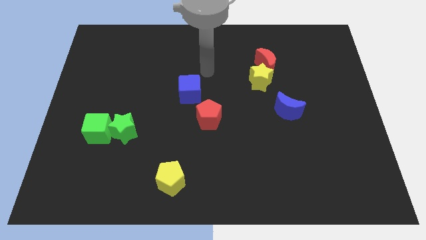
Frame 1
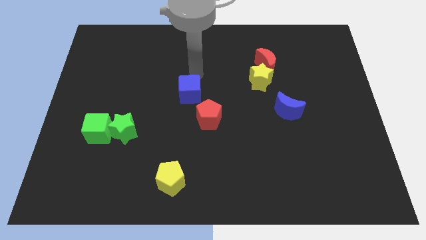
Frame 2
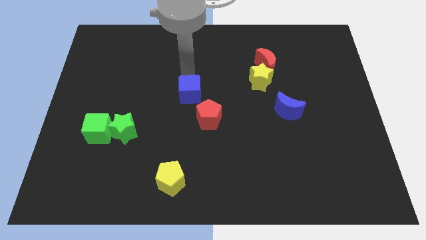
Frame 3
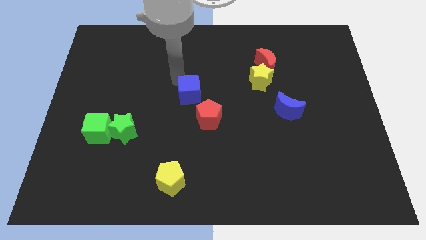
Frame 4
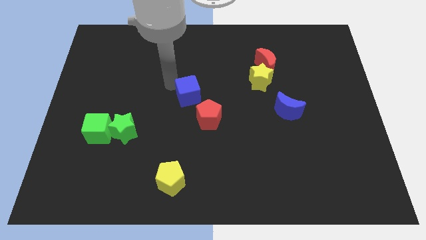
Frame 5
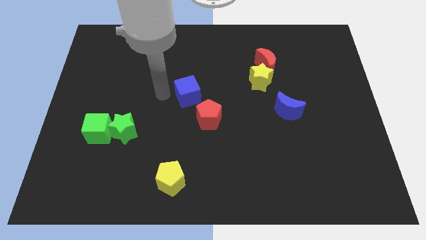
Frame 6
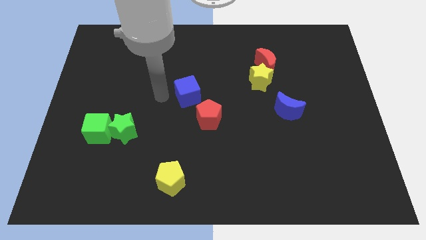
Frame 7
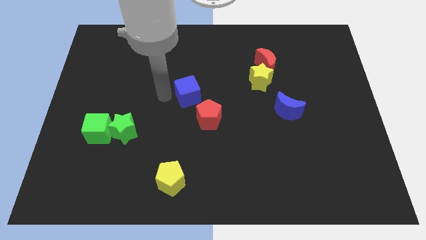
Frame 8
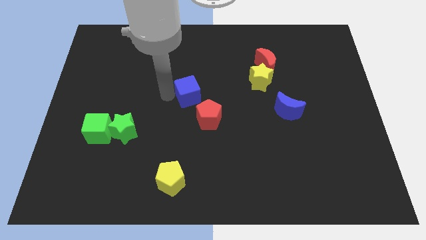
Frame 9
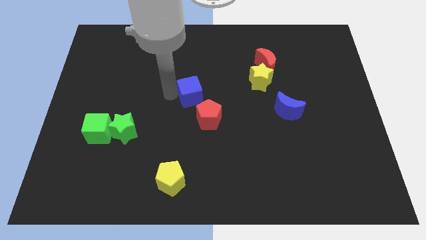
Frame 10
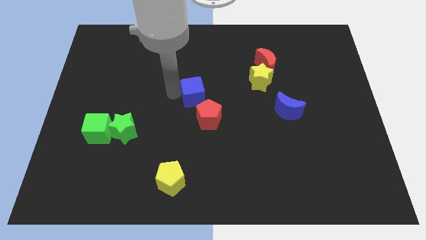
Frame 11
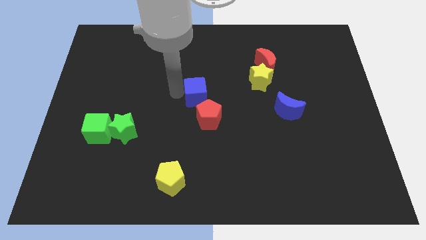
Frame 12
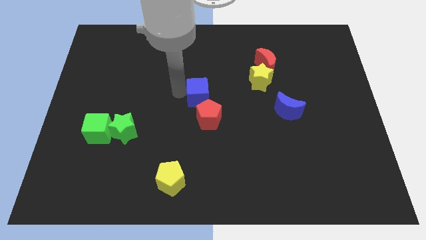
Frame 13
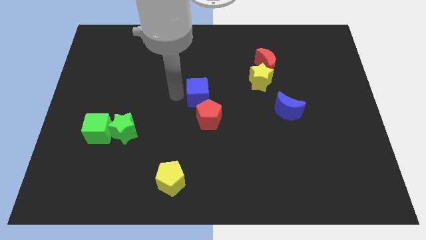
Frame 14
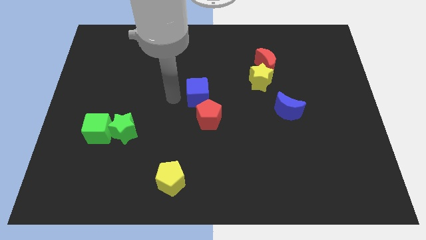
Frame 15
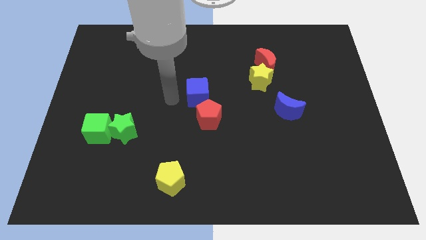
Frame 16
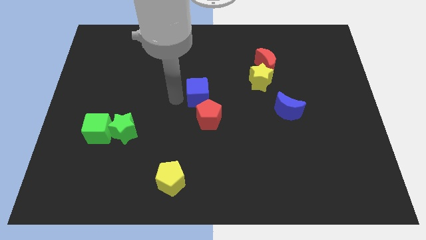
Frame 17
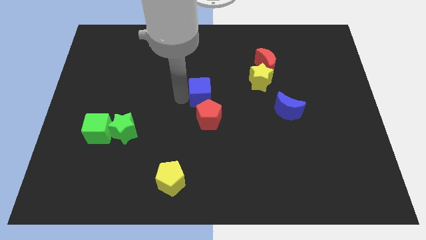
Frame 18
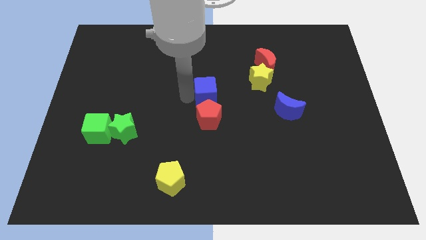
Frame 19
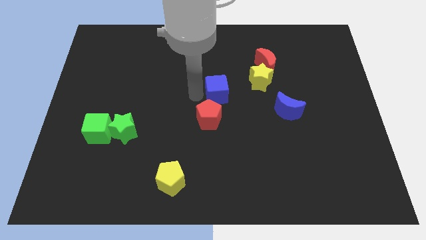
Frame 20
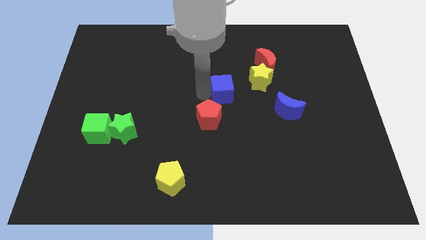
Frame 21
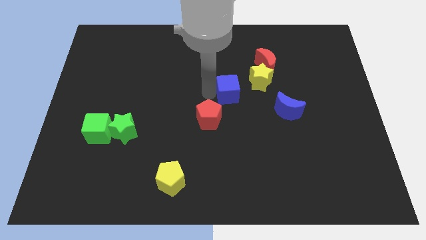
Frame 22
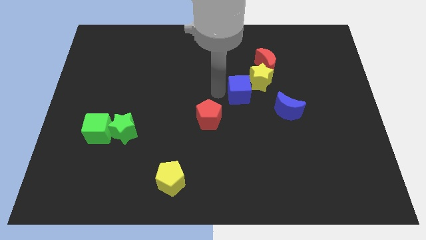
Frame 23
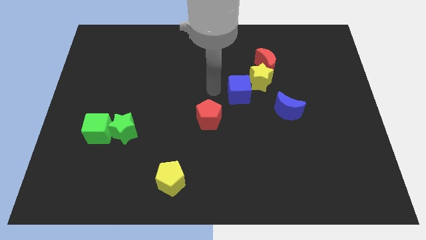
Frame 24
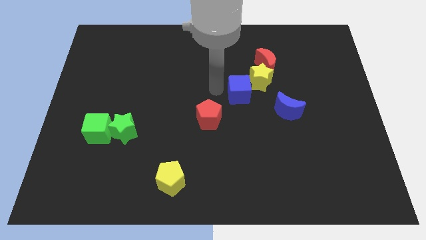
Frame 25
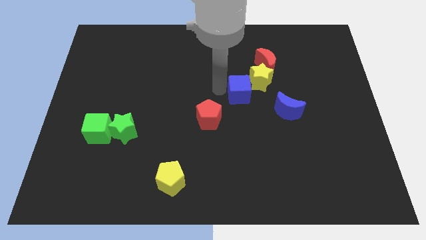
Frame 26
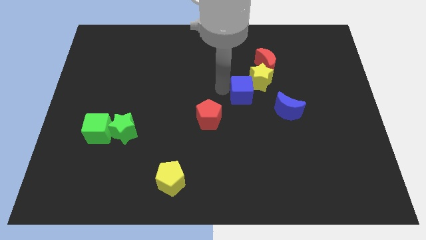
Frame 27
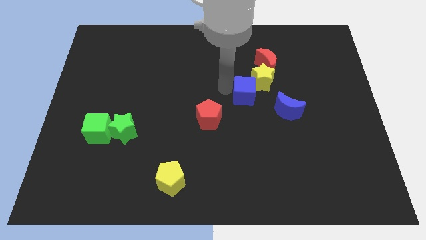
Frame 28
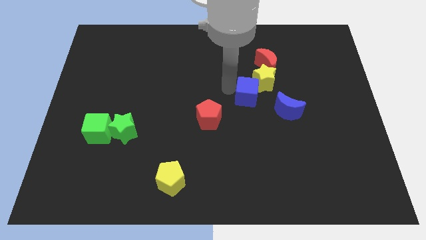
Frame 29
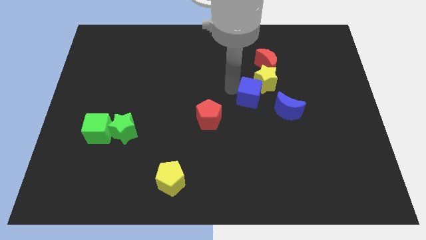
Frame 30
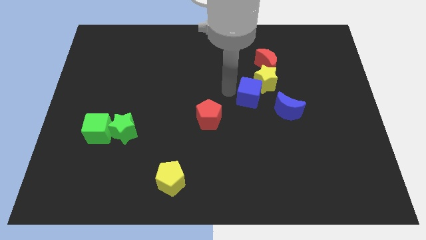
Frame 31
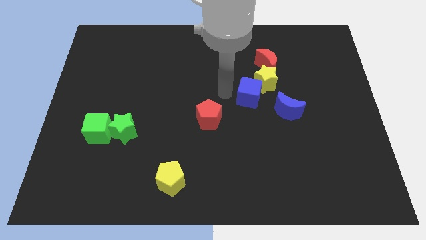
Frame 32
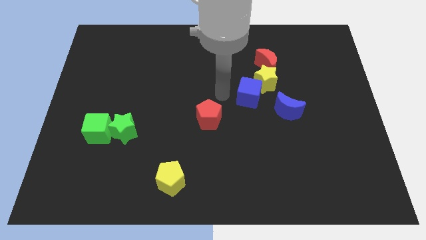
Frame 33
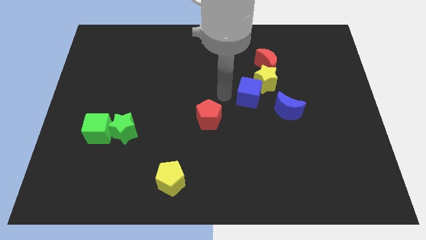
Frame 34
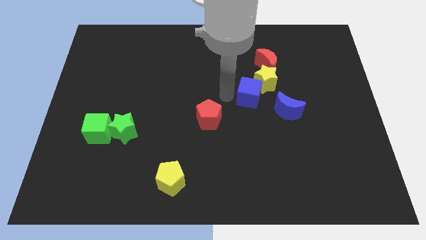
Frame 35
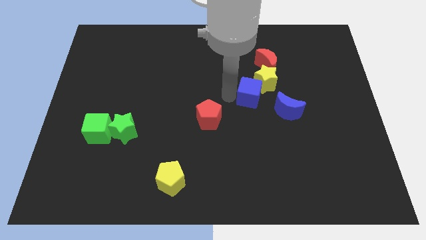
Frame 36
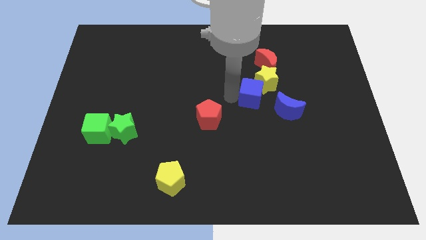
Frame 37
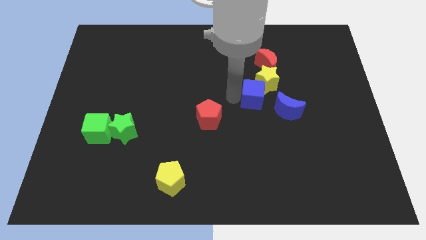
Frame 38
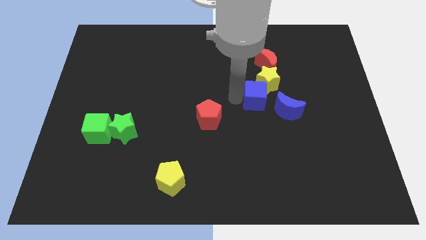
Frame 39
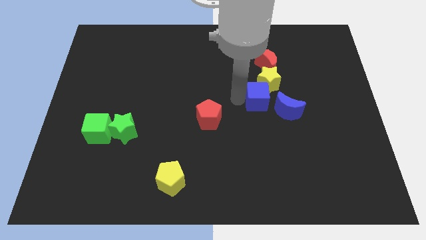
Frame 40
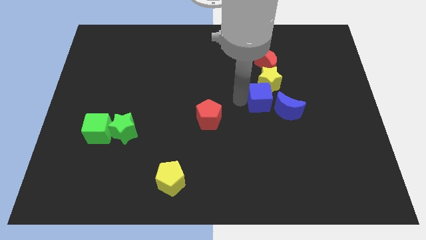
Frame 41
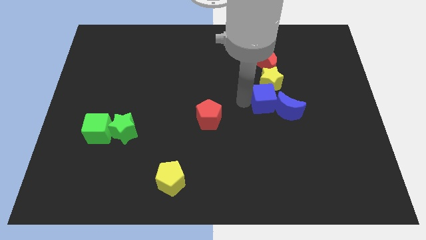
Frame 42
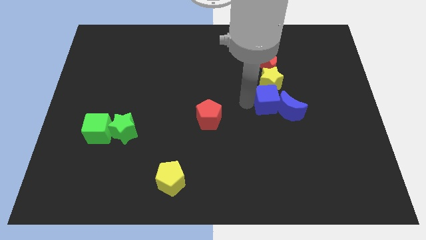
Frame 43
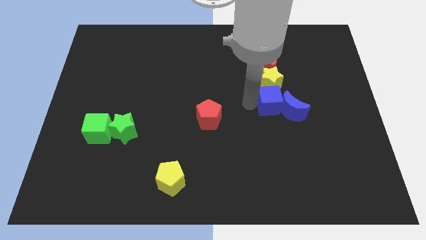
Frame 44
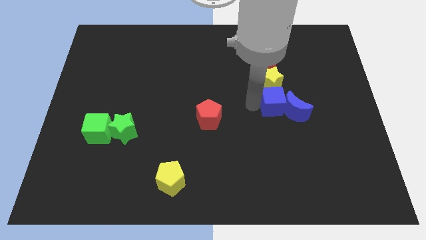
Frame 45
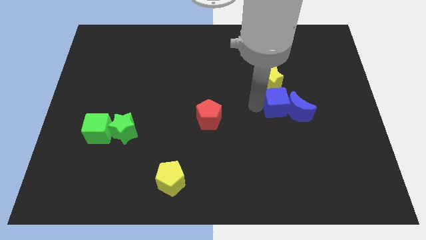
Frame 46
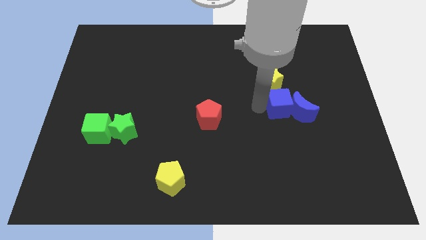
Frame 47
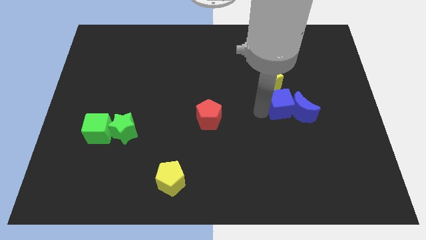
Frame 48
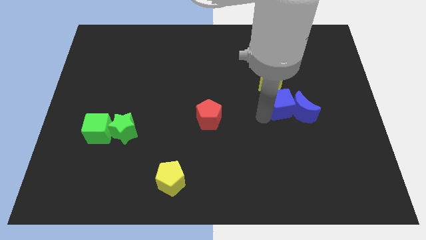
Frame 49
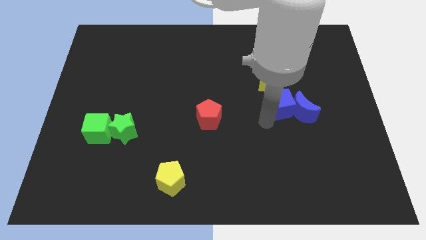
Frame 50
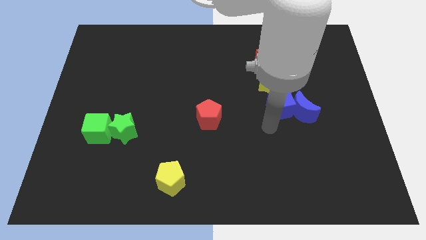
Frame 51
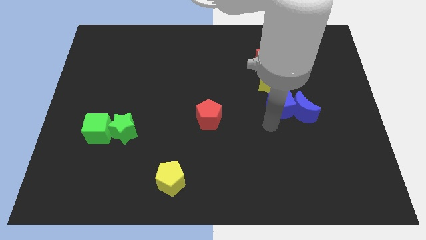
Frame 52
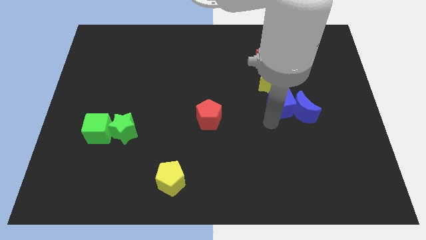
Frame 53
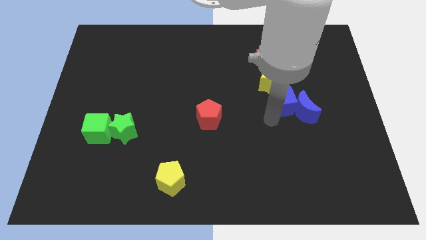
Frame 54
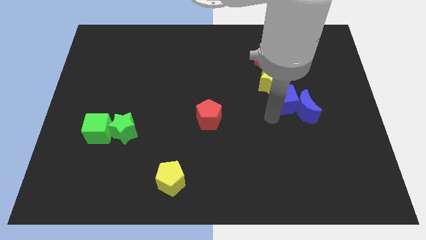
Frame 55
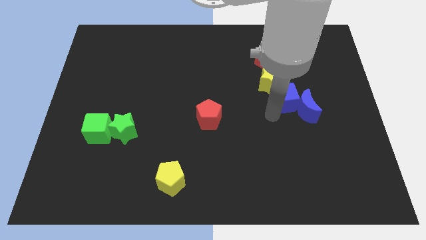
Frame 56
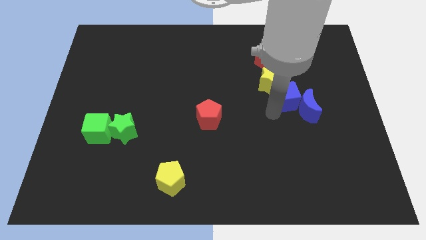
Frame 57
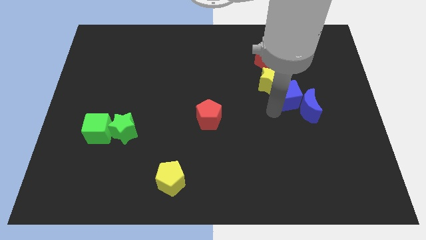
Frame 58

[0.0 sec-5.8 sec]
slide the blue cube right of the yellow star

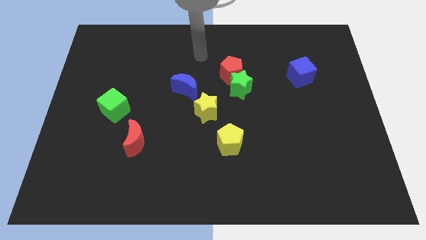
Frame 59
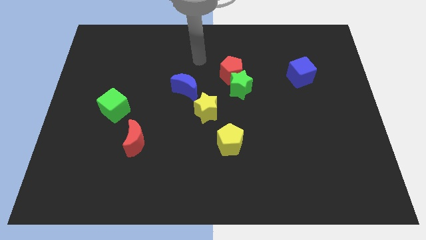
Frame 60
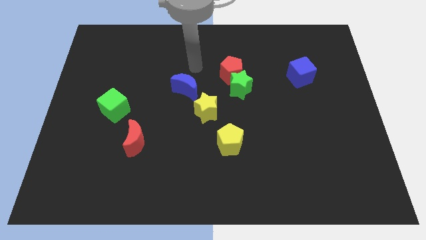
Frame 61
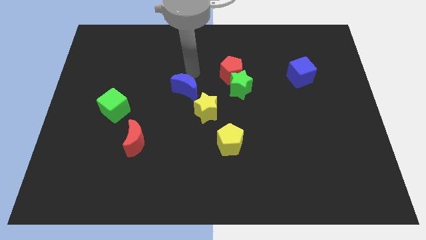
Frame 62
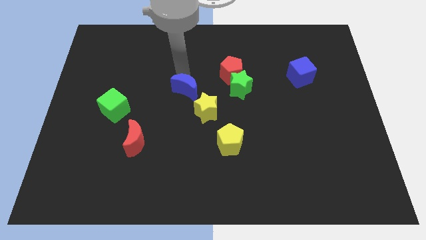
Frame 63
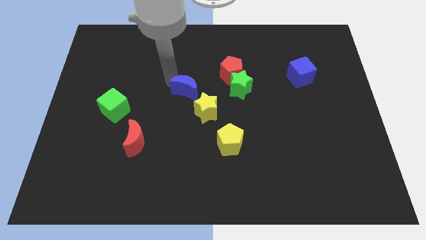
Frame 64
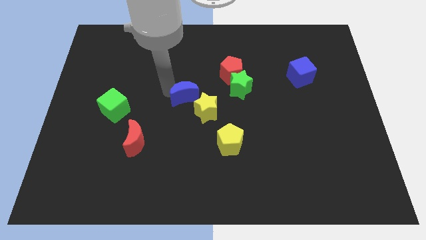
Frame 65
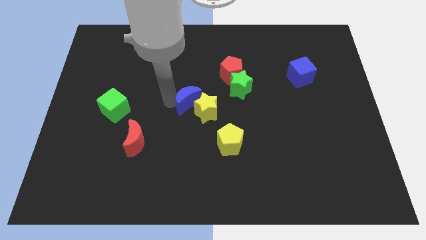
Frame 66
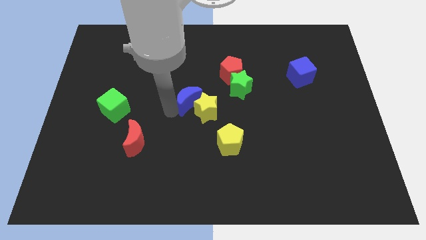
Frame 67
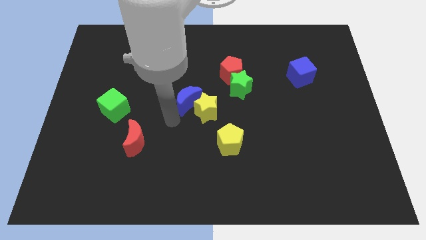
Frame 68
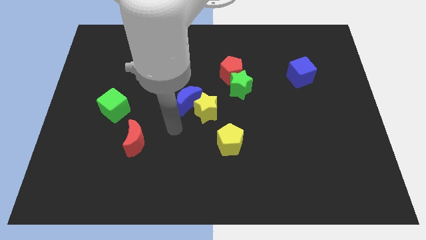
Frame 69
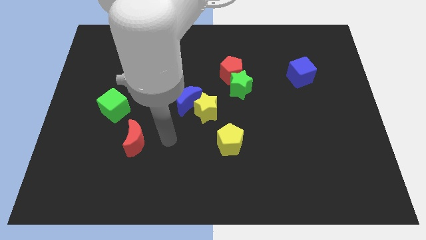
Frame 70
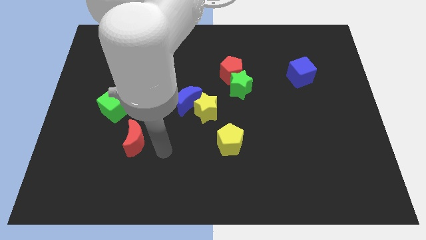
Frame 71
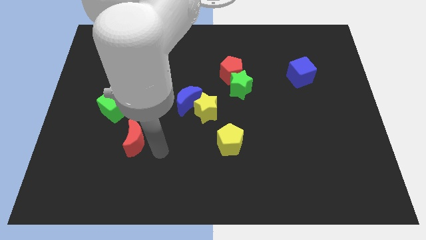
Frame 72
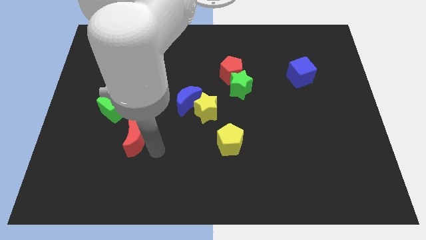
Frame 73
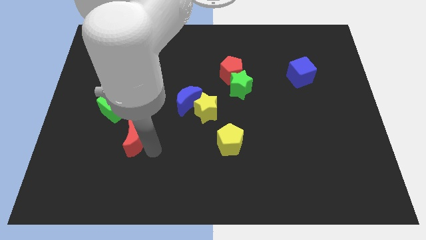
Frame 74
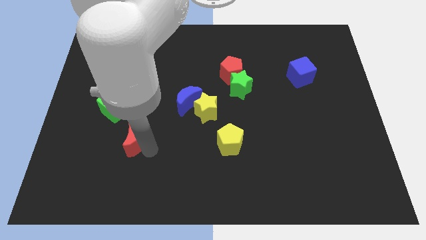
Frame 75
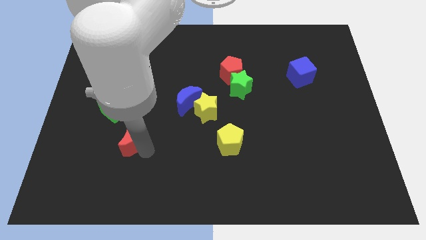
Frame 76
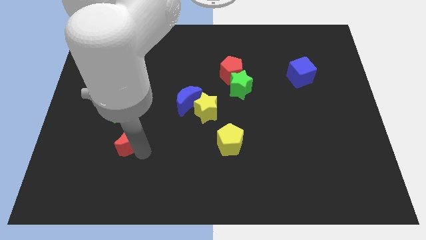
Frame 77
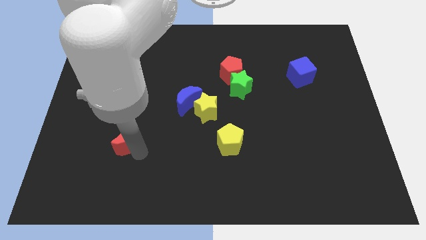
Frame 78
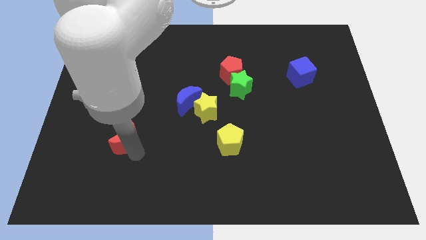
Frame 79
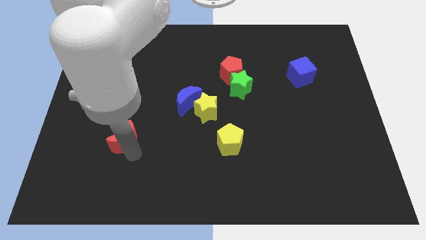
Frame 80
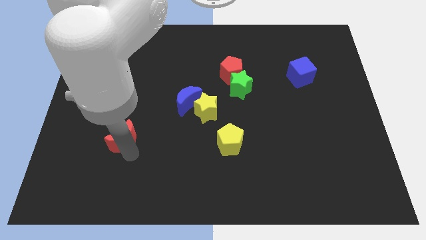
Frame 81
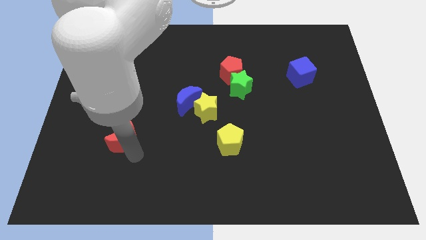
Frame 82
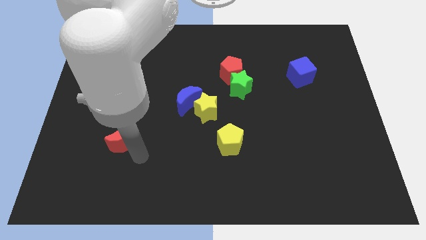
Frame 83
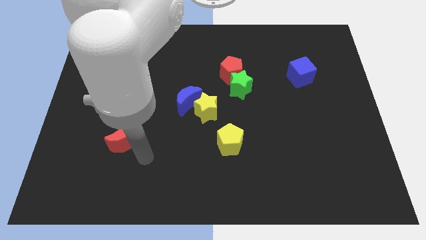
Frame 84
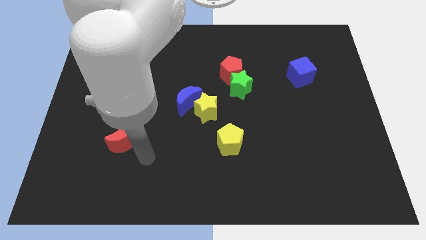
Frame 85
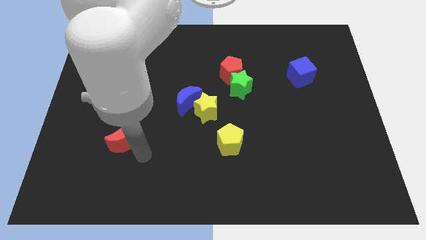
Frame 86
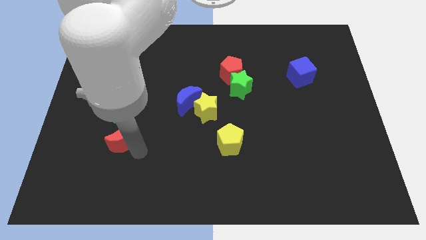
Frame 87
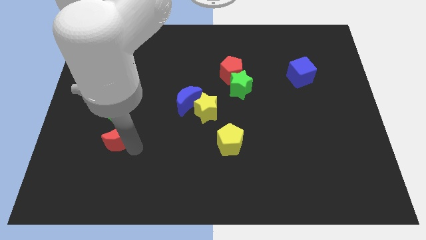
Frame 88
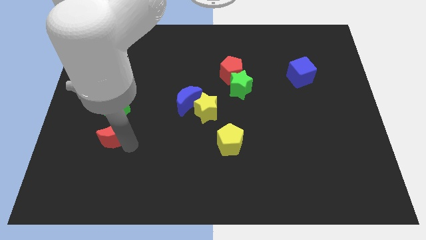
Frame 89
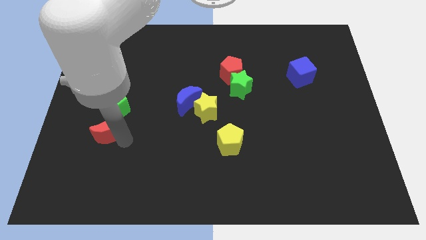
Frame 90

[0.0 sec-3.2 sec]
slide the red moon to the bottom left of the green cube
